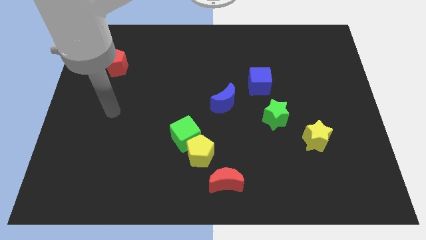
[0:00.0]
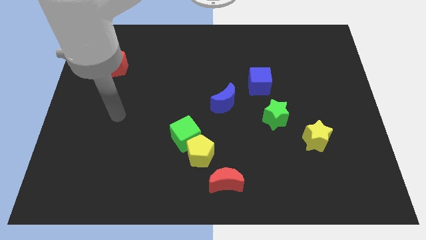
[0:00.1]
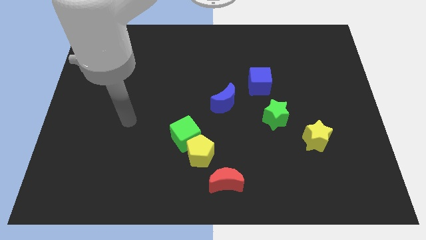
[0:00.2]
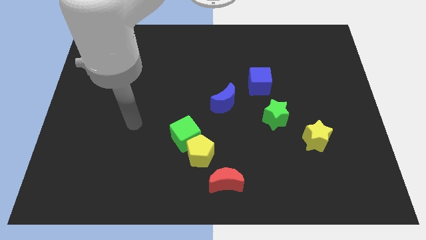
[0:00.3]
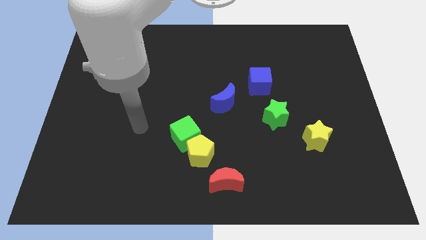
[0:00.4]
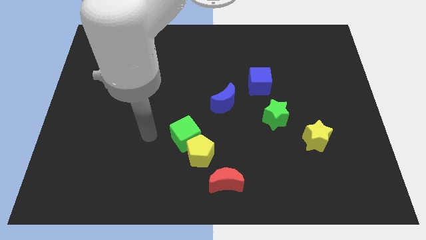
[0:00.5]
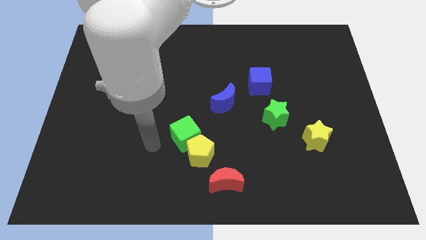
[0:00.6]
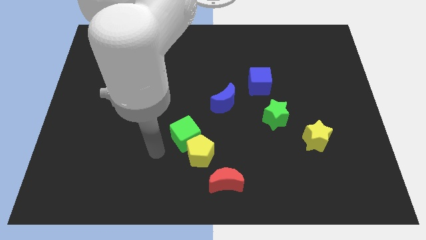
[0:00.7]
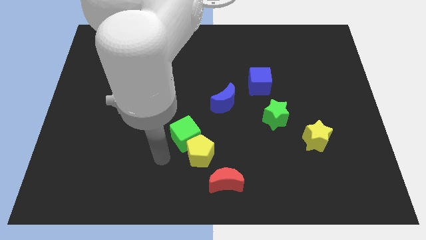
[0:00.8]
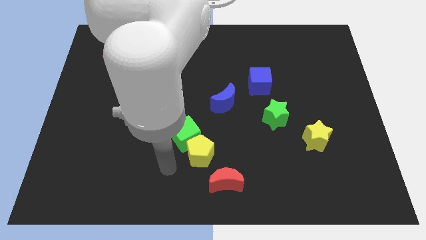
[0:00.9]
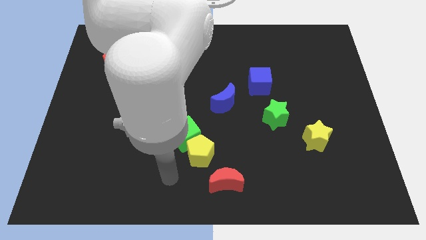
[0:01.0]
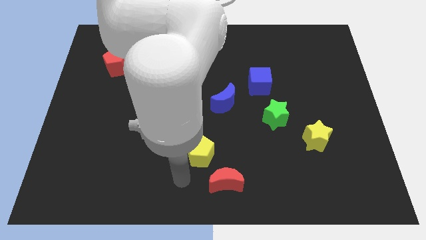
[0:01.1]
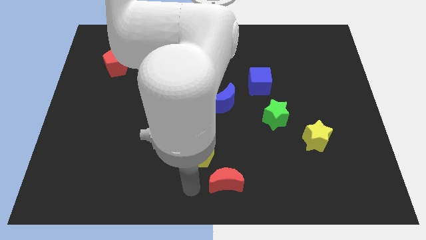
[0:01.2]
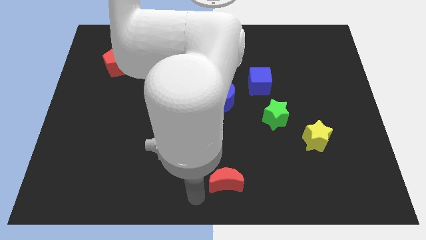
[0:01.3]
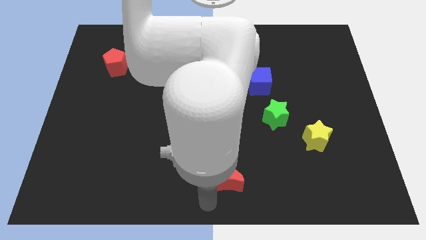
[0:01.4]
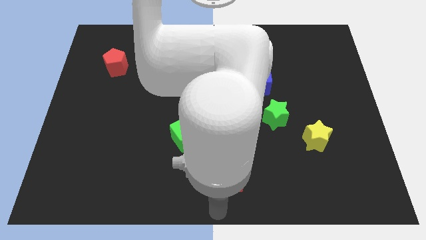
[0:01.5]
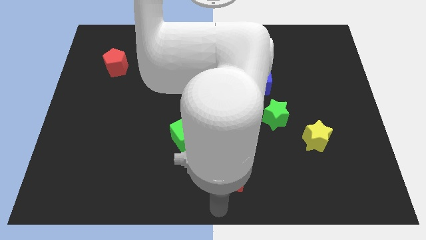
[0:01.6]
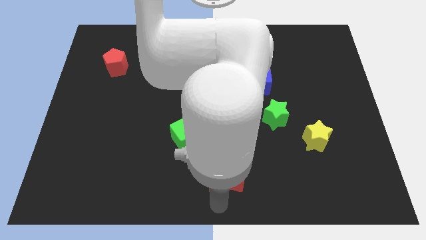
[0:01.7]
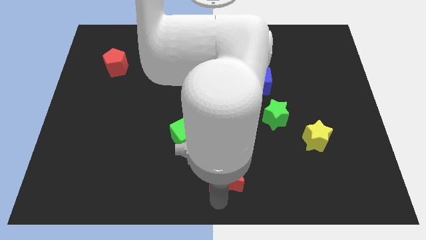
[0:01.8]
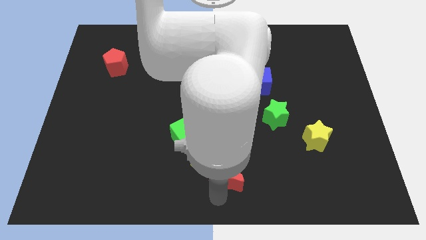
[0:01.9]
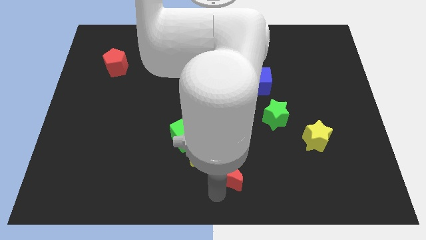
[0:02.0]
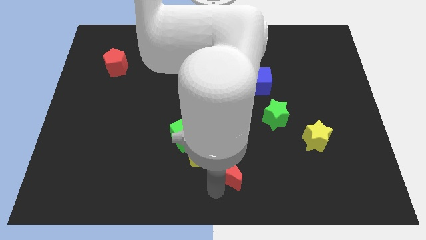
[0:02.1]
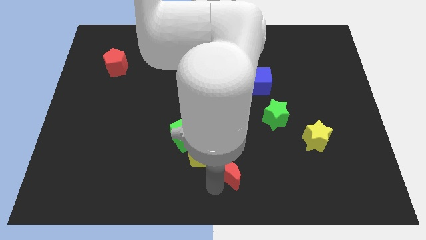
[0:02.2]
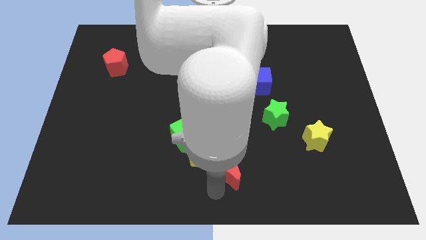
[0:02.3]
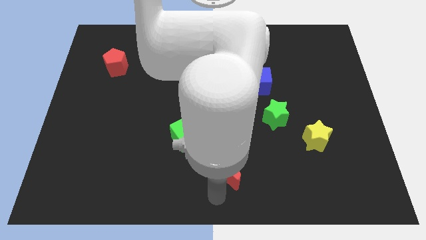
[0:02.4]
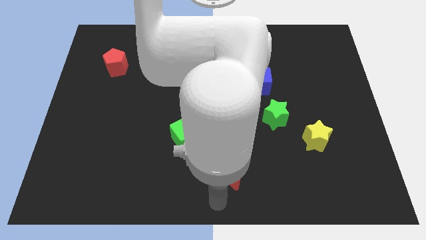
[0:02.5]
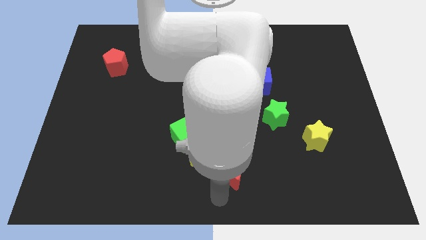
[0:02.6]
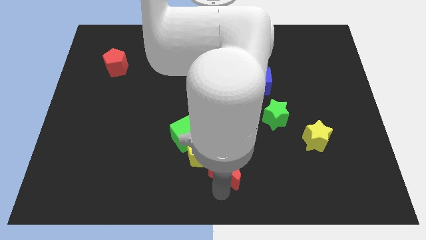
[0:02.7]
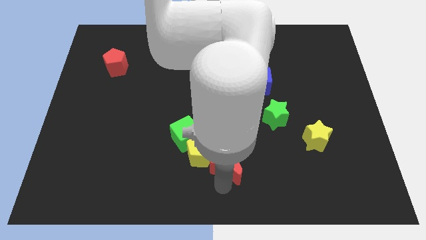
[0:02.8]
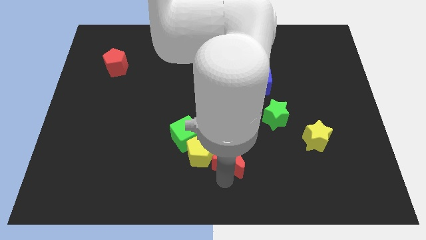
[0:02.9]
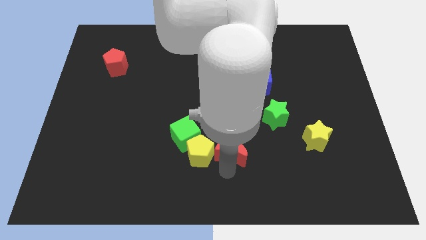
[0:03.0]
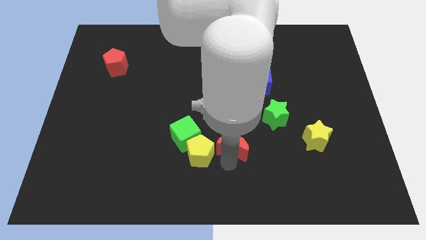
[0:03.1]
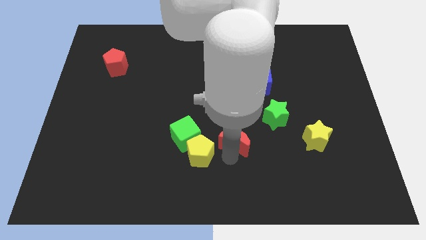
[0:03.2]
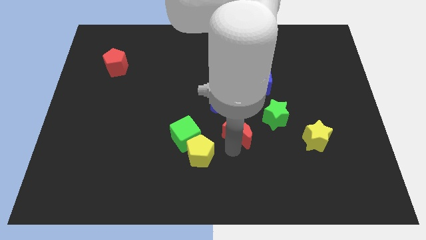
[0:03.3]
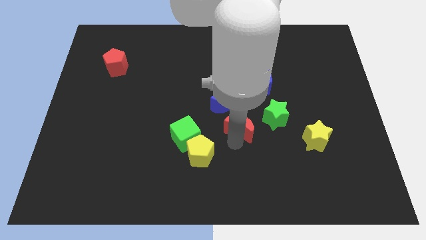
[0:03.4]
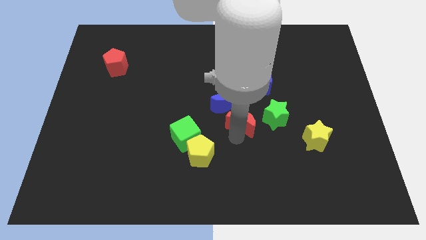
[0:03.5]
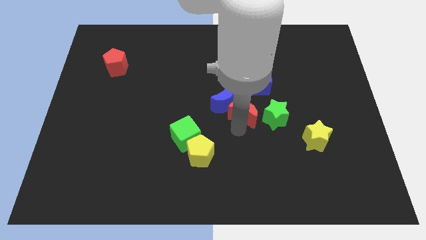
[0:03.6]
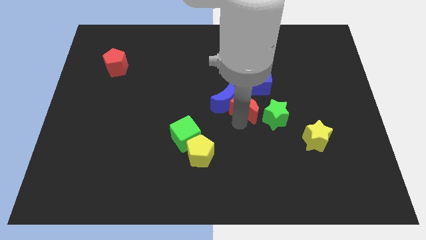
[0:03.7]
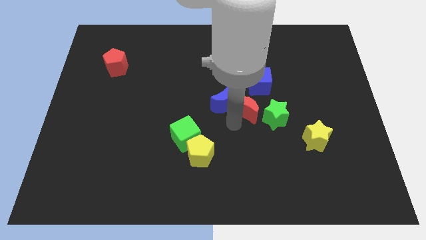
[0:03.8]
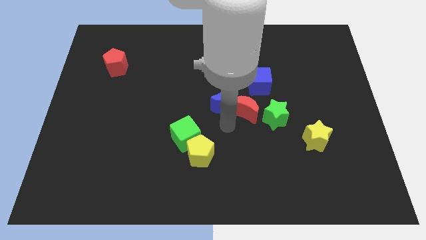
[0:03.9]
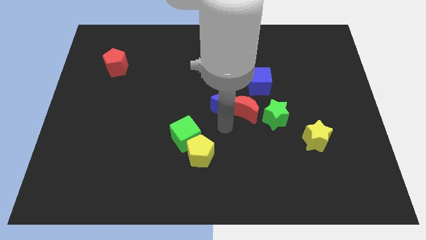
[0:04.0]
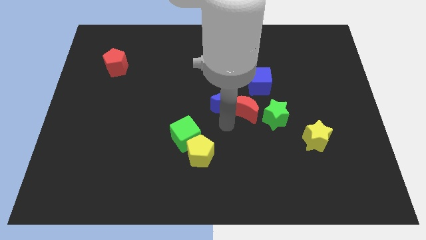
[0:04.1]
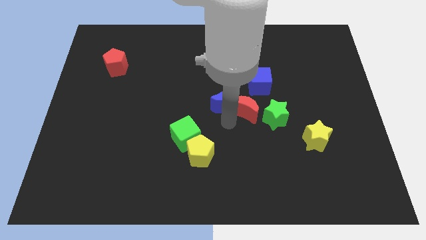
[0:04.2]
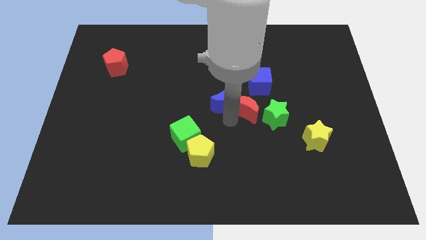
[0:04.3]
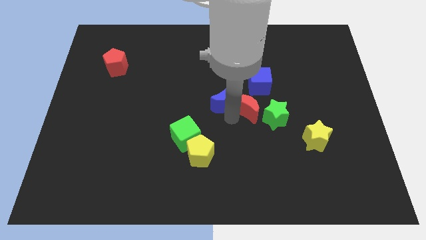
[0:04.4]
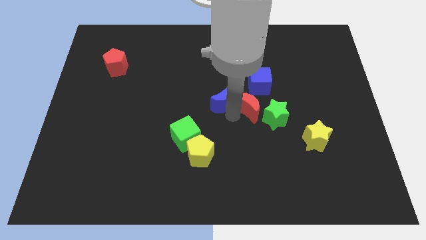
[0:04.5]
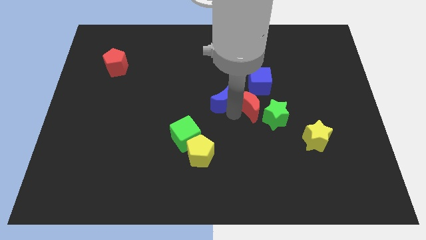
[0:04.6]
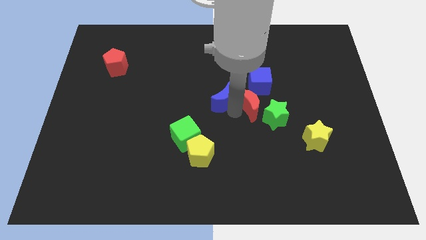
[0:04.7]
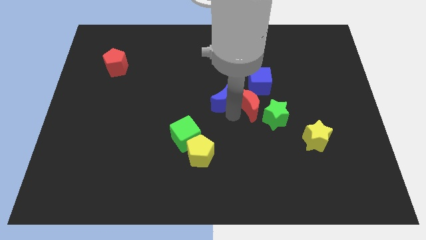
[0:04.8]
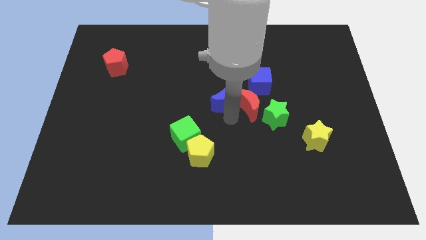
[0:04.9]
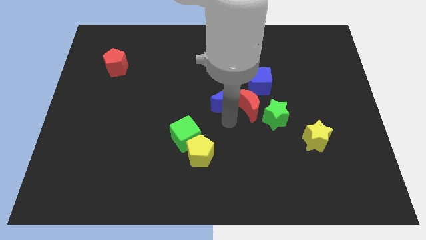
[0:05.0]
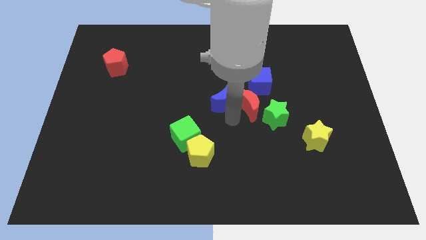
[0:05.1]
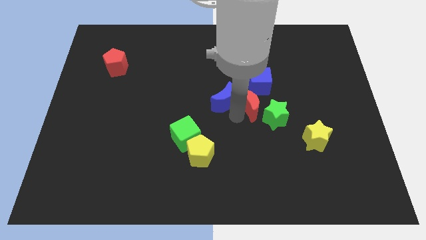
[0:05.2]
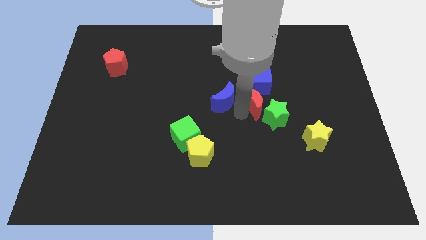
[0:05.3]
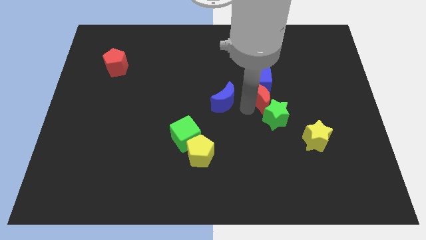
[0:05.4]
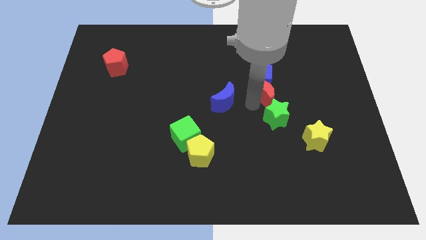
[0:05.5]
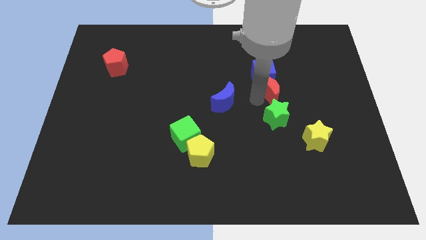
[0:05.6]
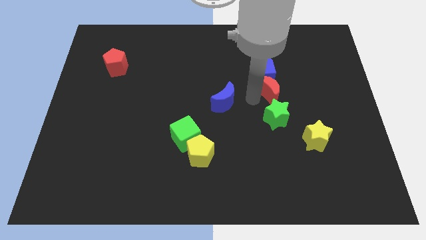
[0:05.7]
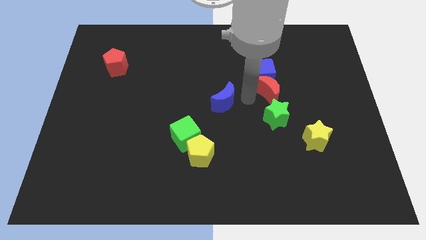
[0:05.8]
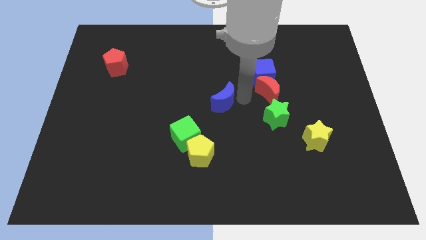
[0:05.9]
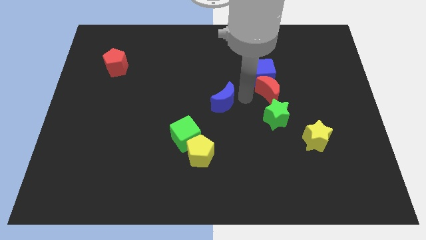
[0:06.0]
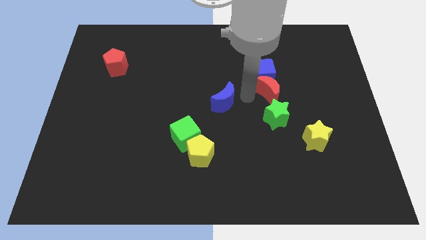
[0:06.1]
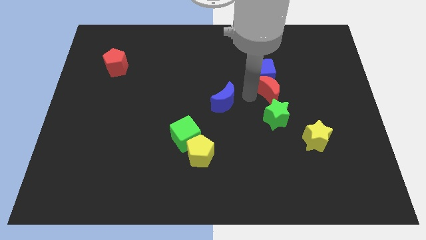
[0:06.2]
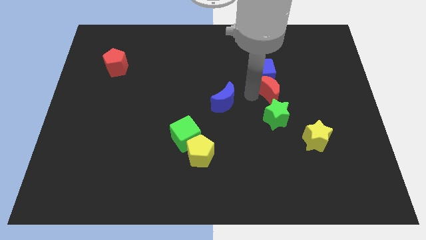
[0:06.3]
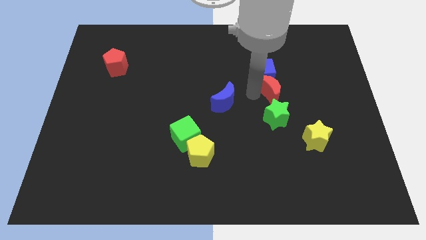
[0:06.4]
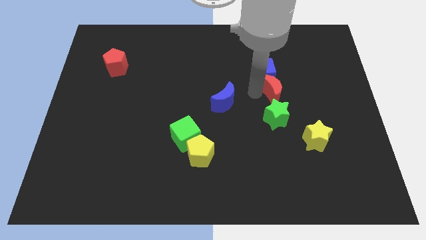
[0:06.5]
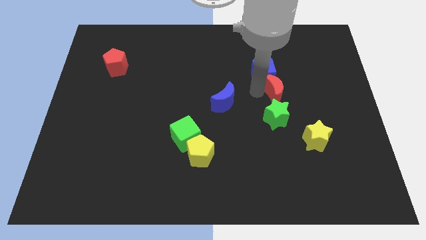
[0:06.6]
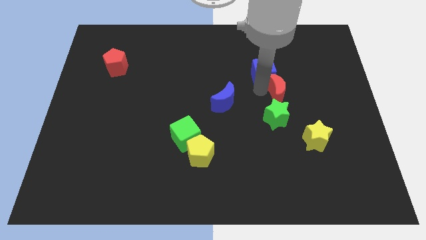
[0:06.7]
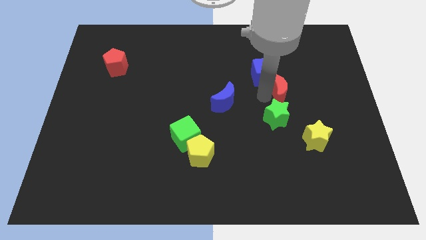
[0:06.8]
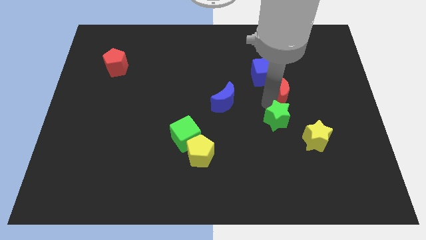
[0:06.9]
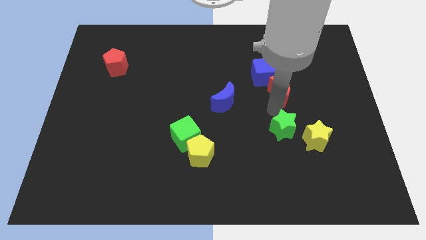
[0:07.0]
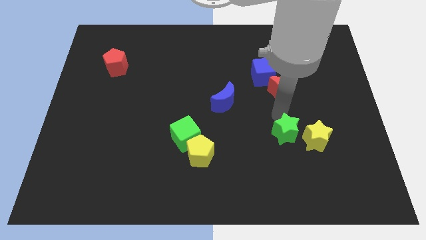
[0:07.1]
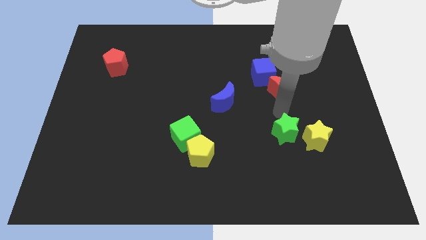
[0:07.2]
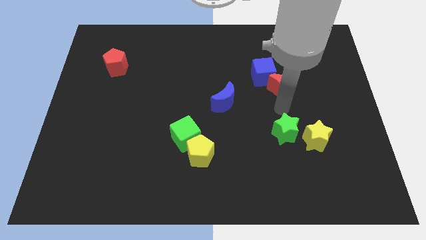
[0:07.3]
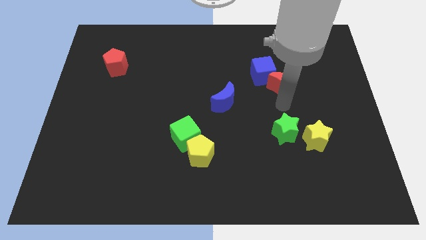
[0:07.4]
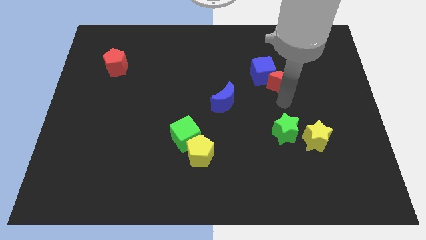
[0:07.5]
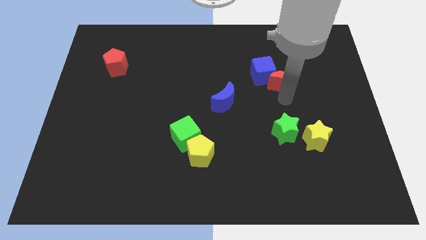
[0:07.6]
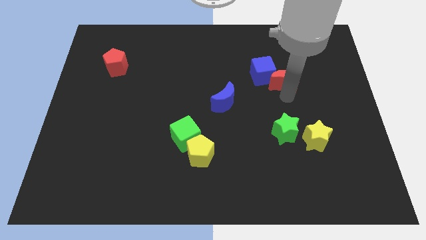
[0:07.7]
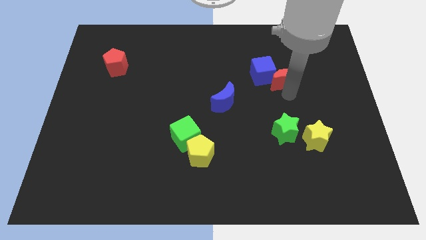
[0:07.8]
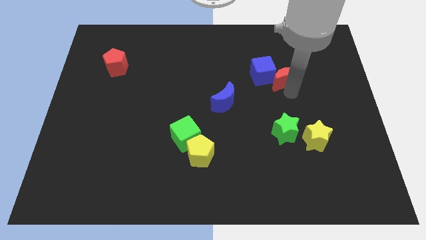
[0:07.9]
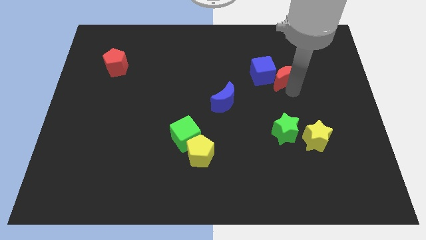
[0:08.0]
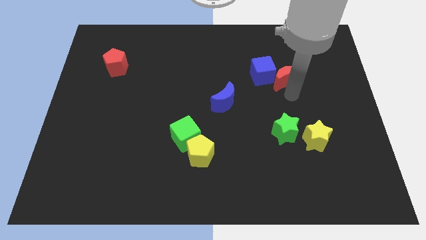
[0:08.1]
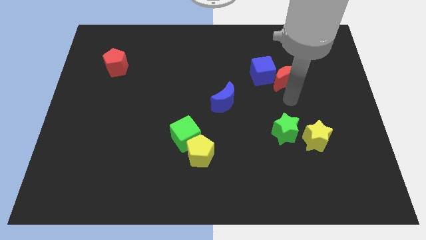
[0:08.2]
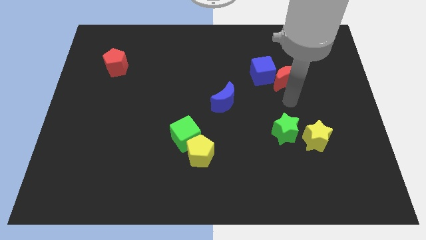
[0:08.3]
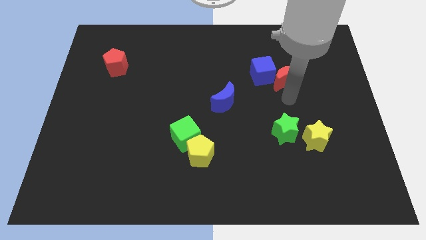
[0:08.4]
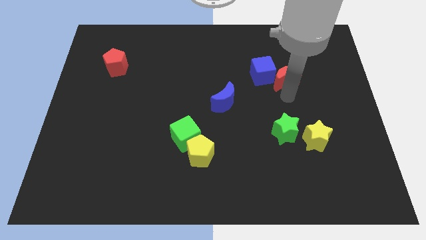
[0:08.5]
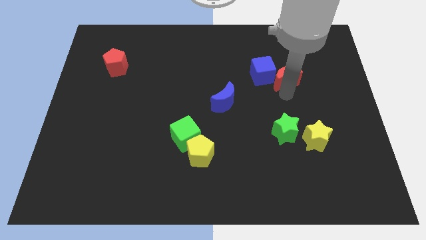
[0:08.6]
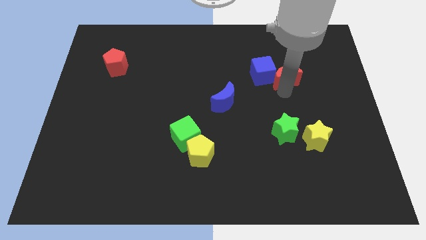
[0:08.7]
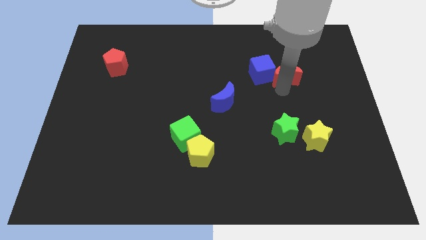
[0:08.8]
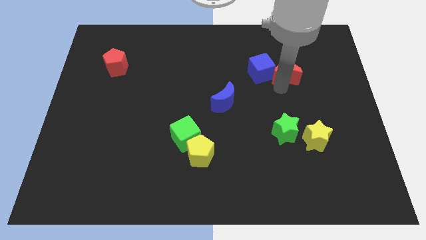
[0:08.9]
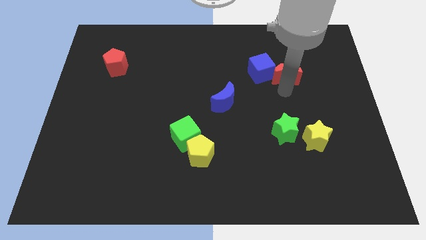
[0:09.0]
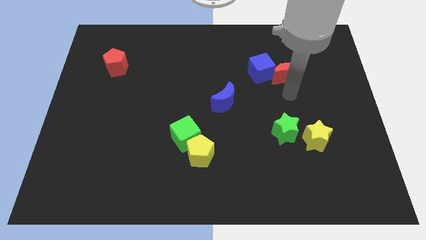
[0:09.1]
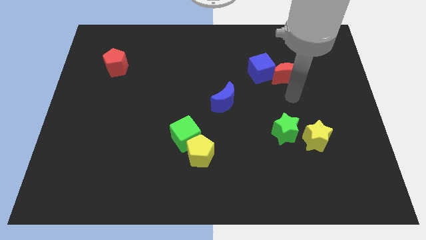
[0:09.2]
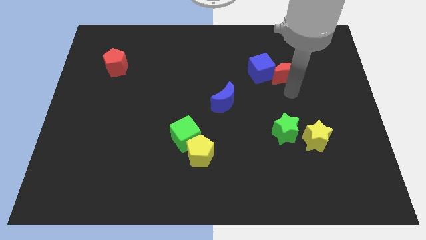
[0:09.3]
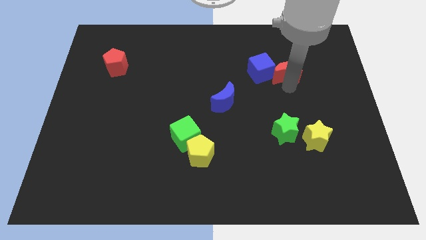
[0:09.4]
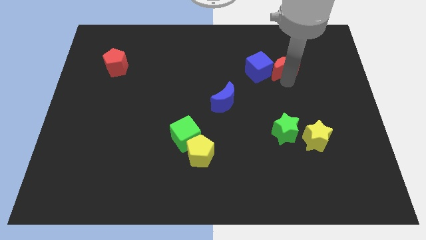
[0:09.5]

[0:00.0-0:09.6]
put the red moon to the top right side of the blue cube
